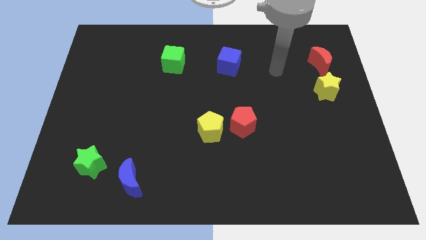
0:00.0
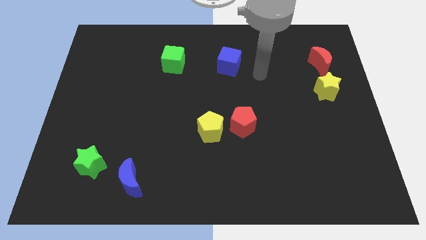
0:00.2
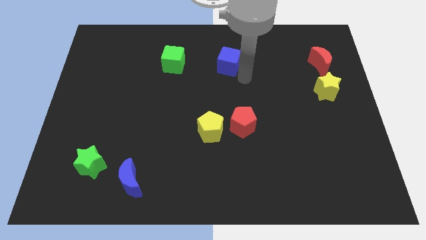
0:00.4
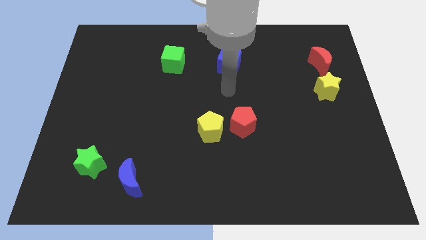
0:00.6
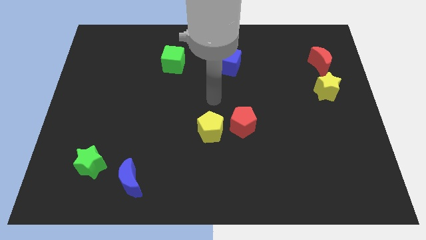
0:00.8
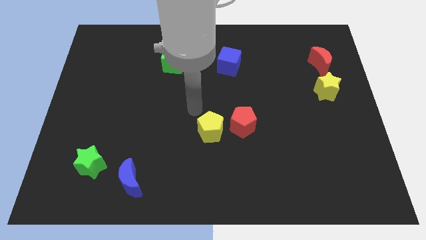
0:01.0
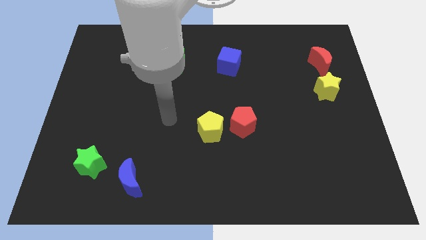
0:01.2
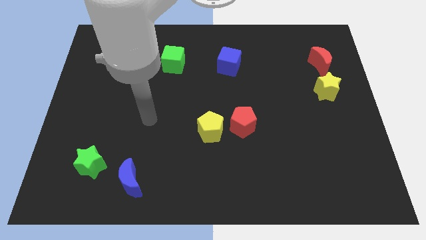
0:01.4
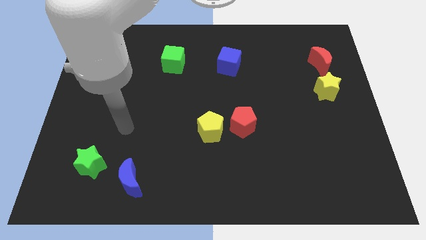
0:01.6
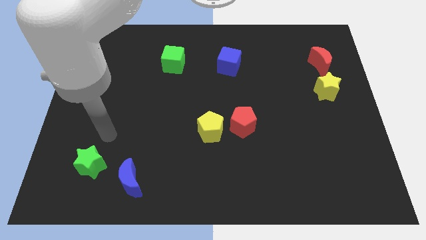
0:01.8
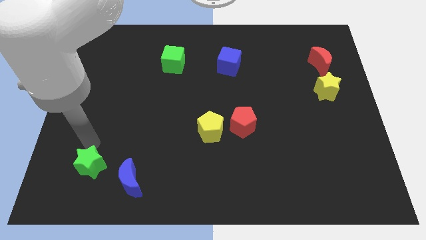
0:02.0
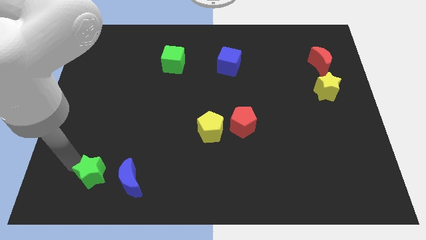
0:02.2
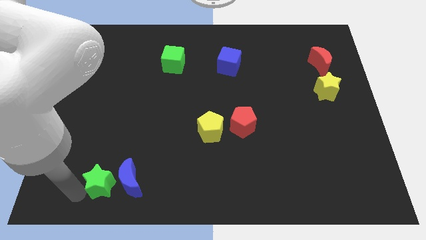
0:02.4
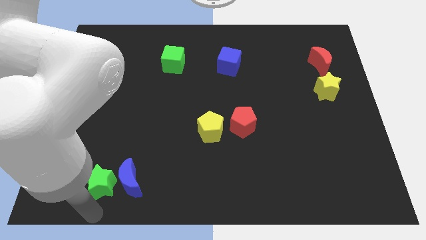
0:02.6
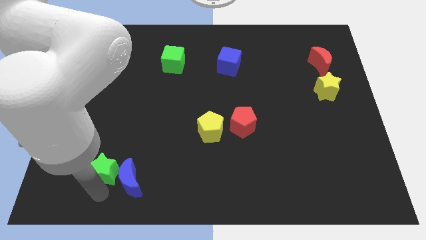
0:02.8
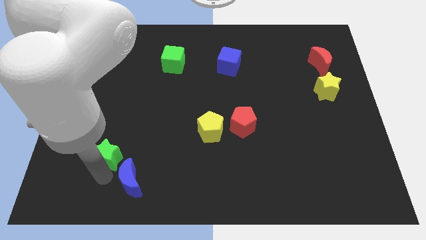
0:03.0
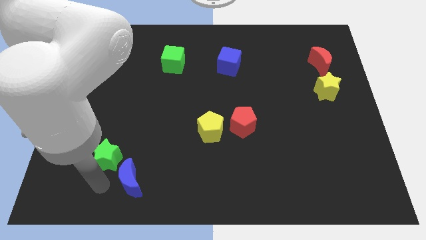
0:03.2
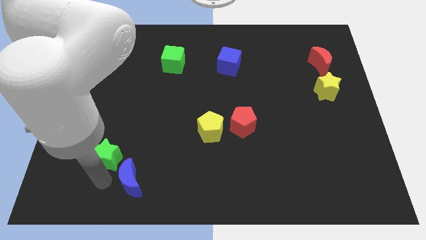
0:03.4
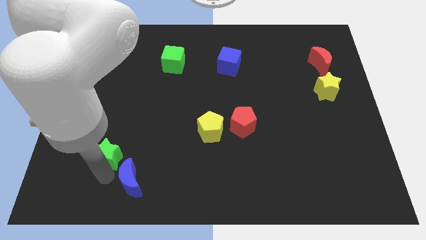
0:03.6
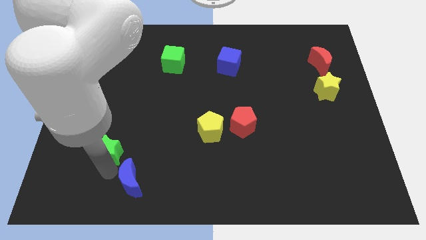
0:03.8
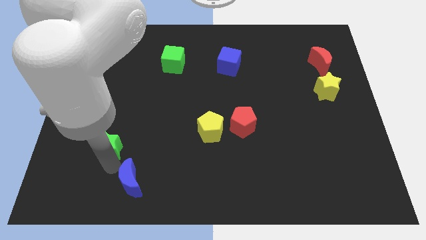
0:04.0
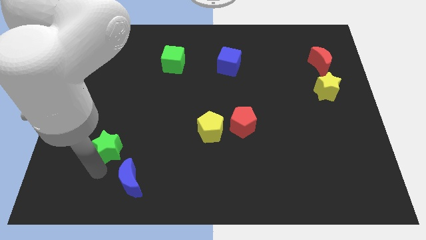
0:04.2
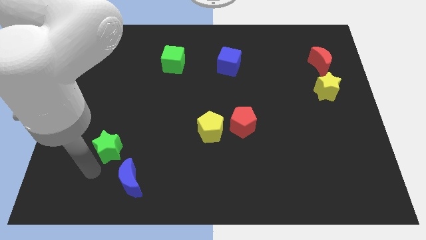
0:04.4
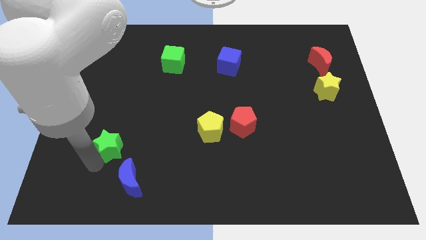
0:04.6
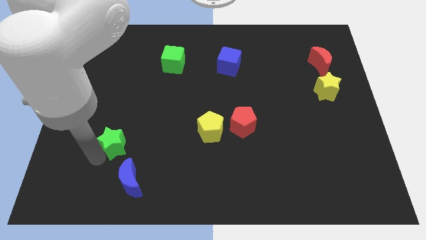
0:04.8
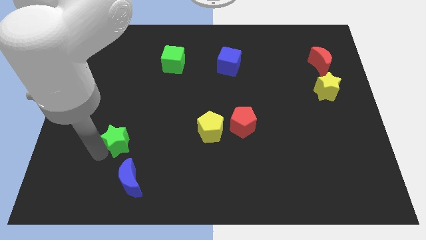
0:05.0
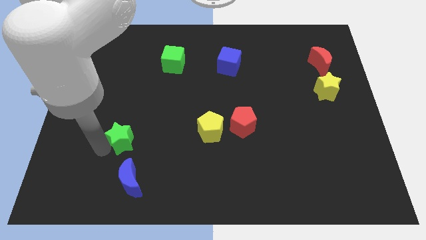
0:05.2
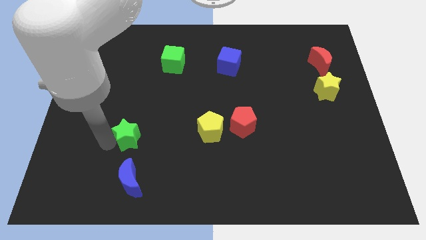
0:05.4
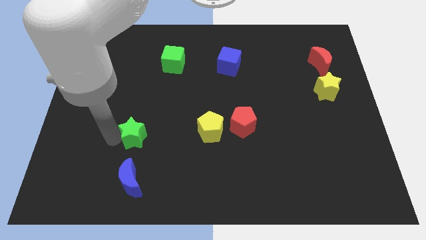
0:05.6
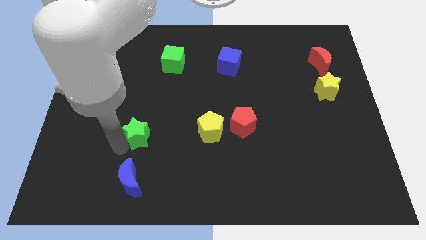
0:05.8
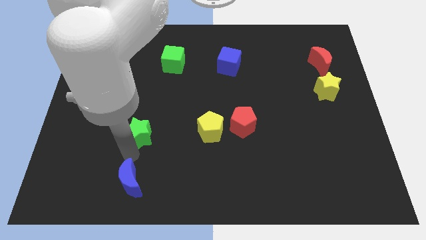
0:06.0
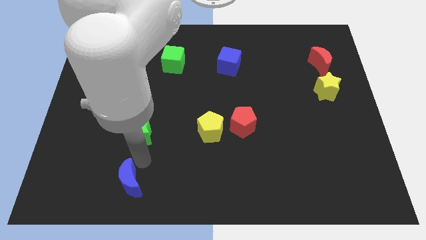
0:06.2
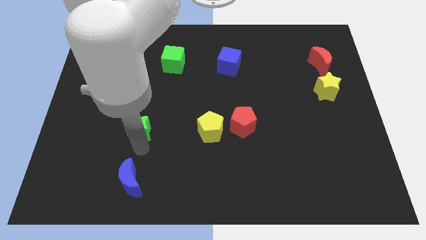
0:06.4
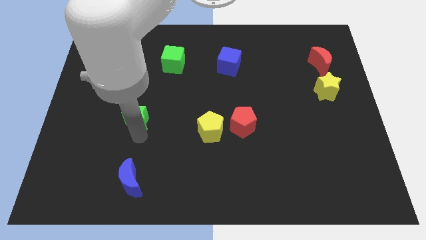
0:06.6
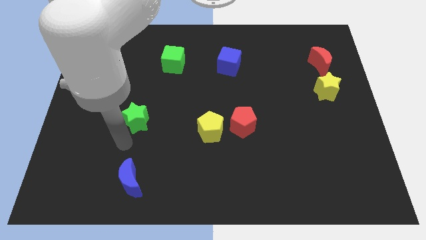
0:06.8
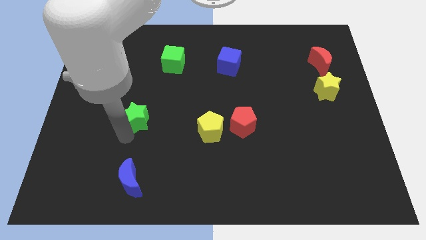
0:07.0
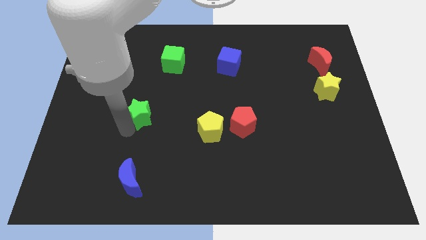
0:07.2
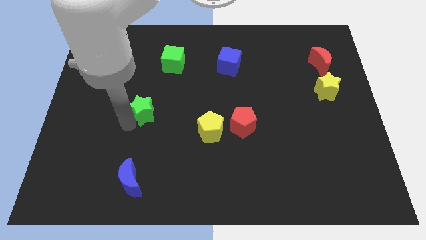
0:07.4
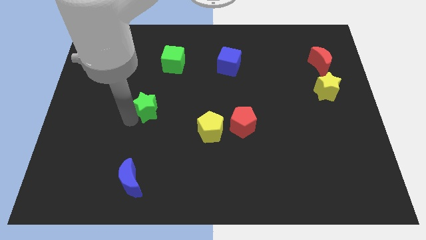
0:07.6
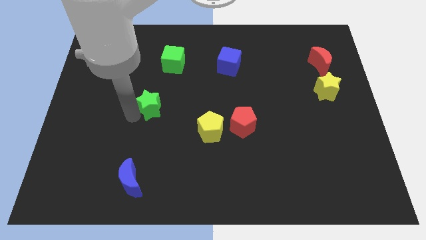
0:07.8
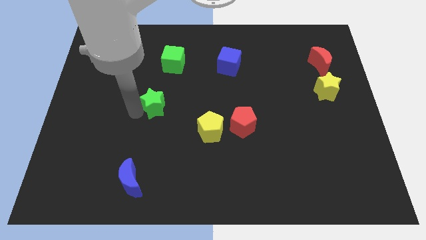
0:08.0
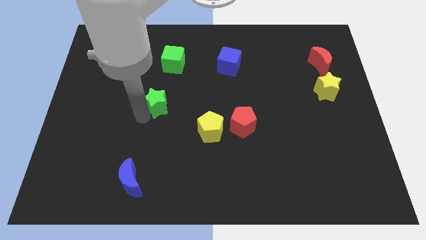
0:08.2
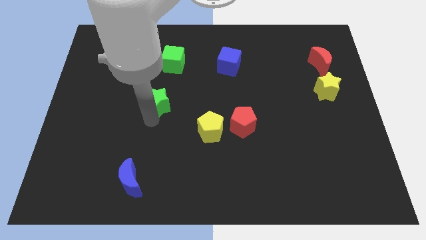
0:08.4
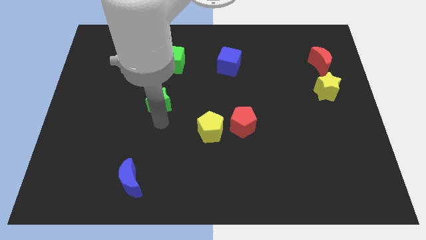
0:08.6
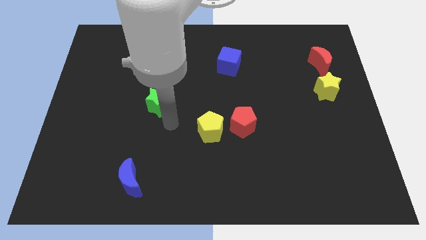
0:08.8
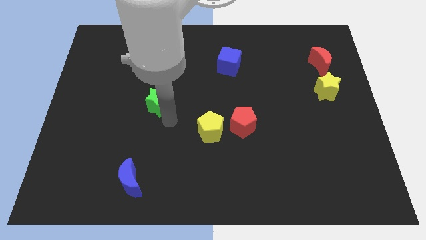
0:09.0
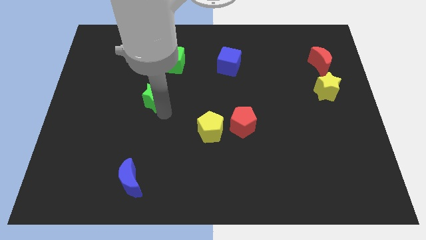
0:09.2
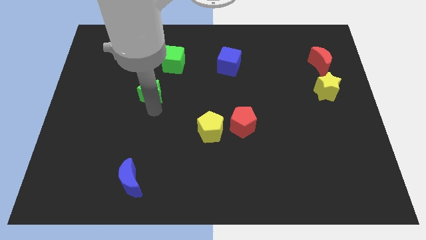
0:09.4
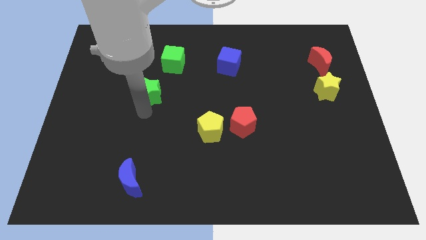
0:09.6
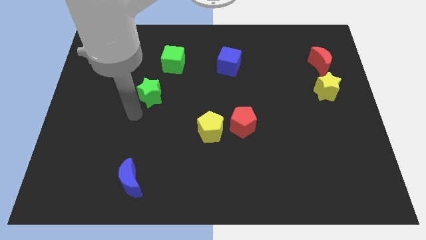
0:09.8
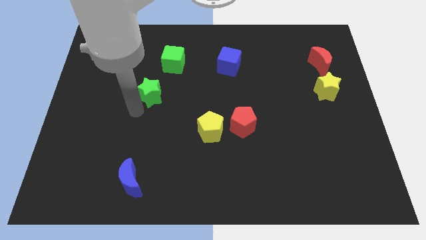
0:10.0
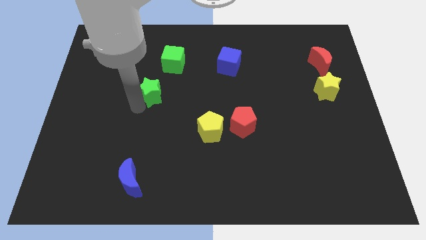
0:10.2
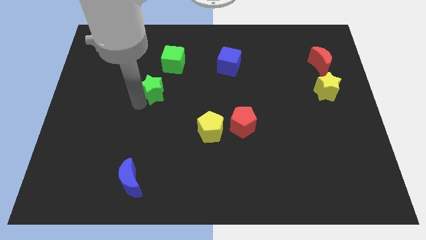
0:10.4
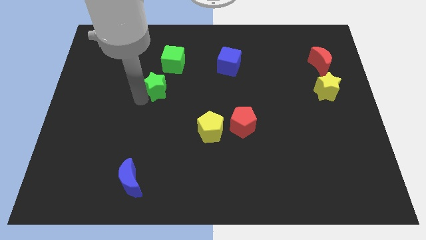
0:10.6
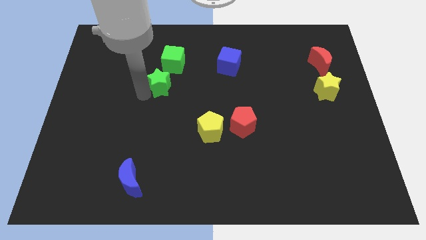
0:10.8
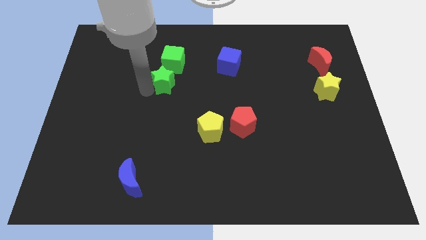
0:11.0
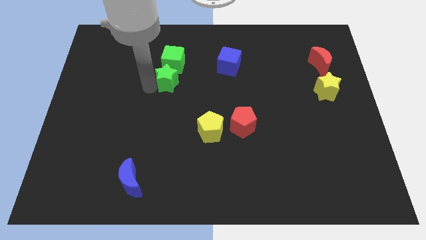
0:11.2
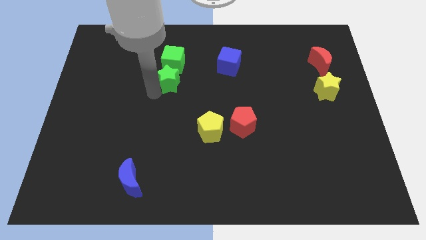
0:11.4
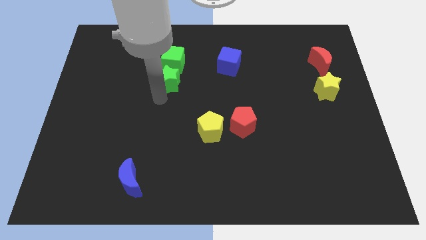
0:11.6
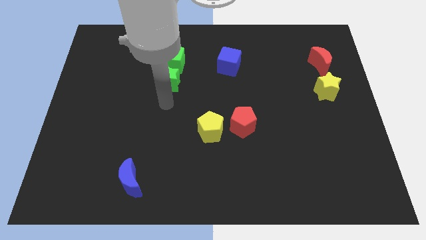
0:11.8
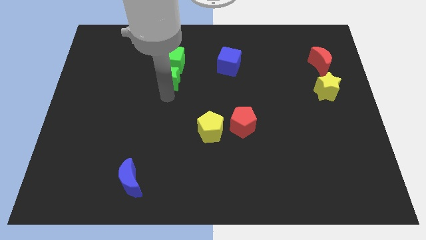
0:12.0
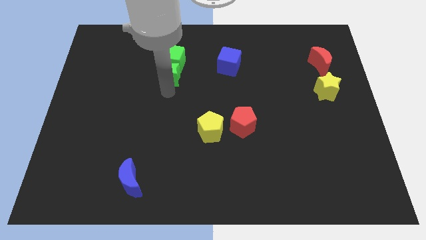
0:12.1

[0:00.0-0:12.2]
put the green star to the green cube
